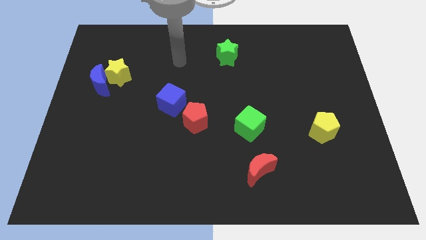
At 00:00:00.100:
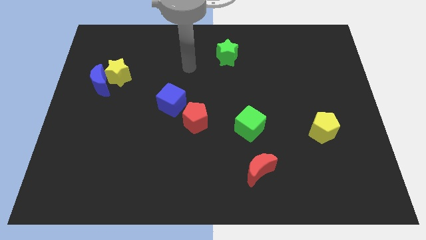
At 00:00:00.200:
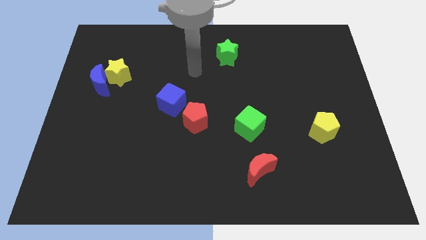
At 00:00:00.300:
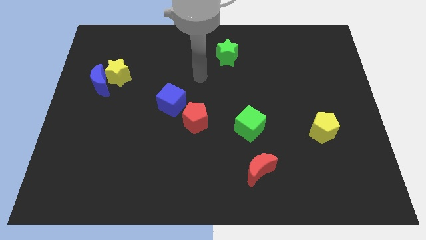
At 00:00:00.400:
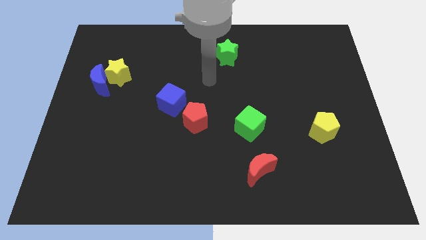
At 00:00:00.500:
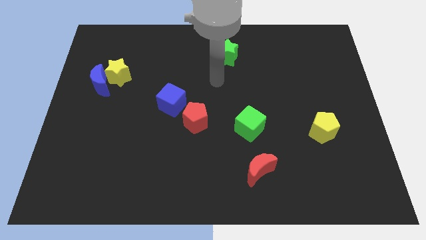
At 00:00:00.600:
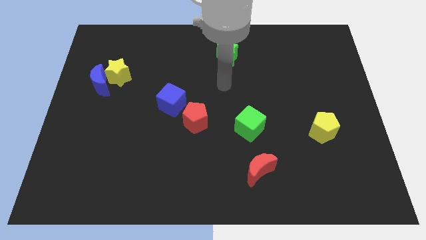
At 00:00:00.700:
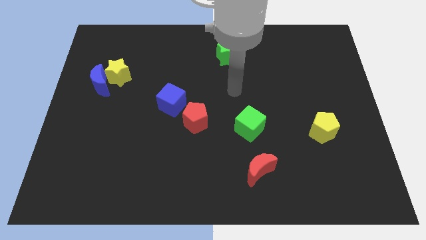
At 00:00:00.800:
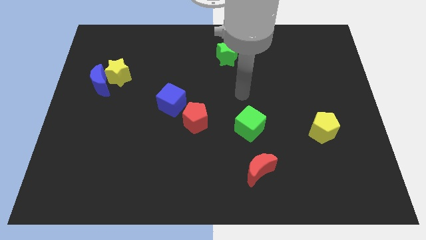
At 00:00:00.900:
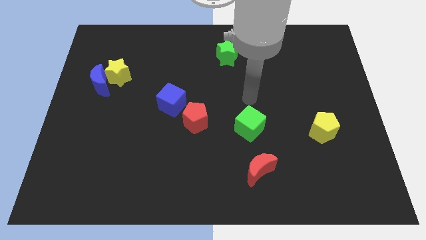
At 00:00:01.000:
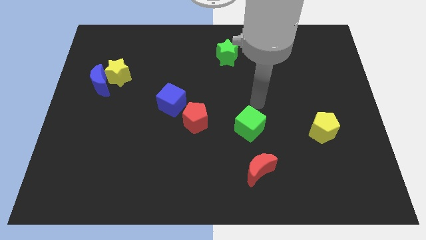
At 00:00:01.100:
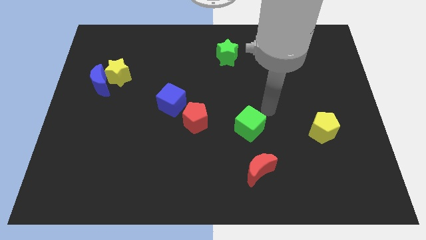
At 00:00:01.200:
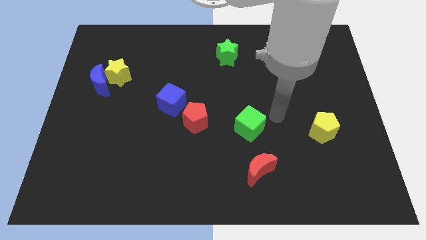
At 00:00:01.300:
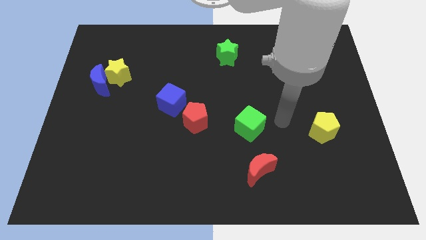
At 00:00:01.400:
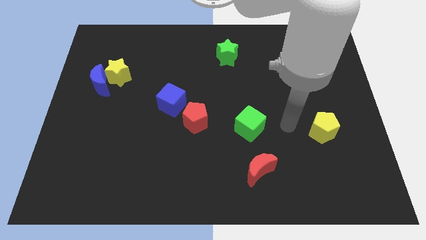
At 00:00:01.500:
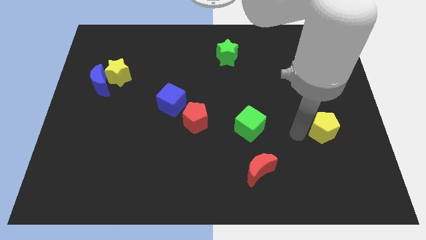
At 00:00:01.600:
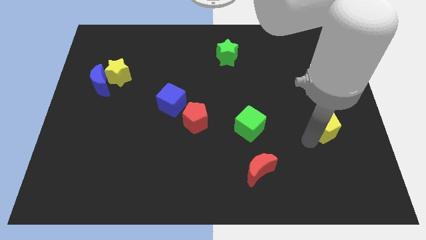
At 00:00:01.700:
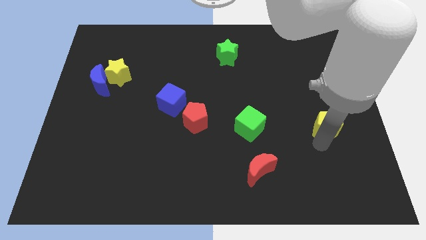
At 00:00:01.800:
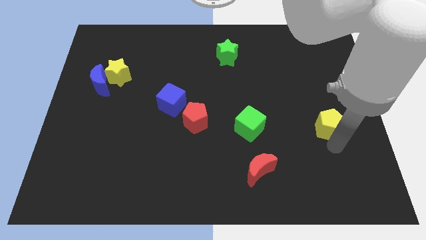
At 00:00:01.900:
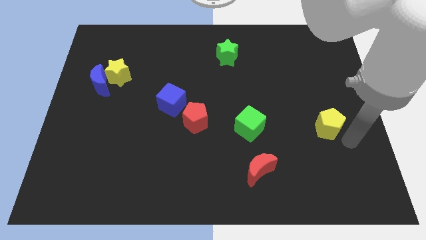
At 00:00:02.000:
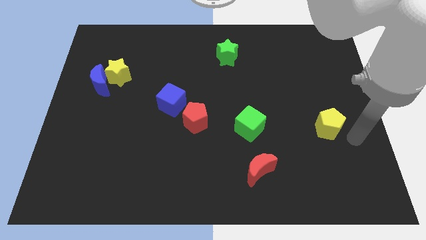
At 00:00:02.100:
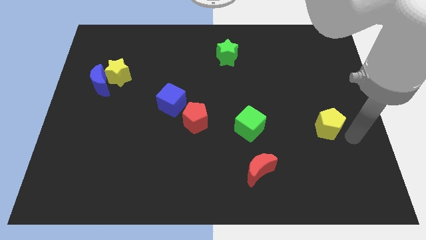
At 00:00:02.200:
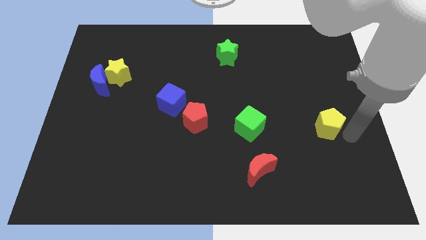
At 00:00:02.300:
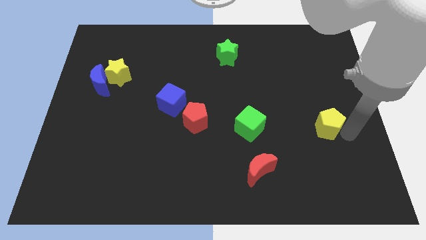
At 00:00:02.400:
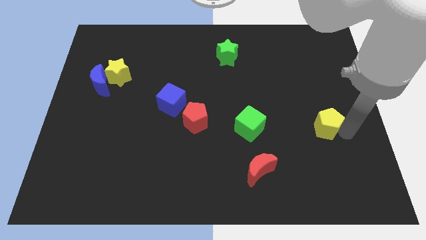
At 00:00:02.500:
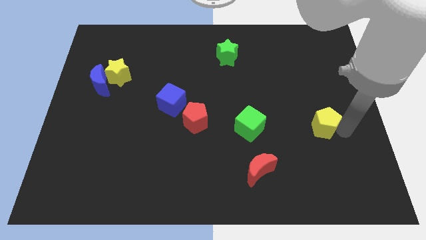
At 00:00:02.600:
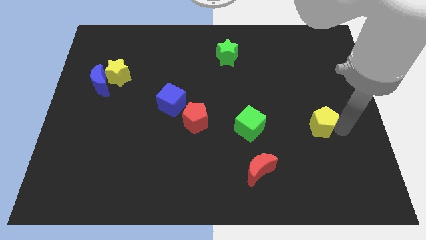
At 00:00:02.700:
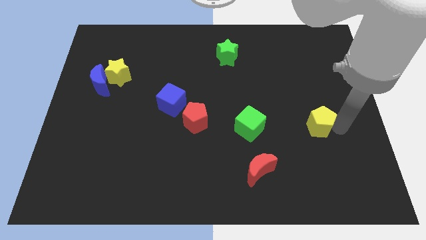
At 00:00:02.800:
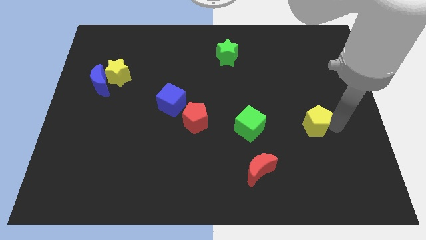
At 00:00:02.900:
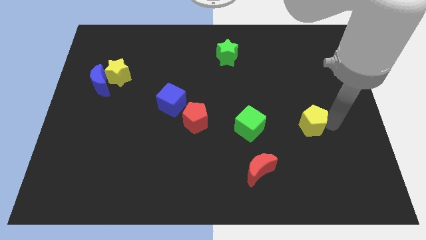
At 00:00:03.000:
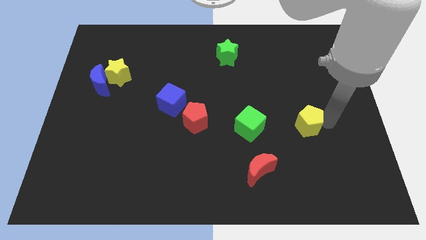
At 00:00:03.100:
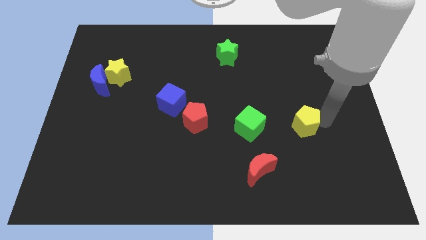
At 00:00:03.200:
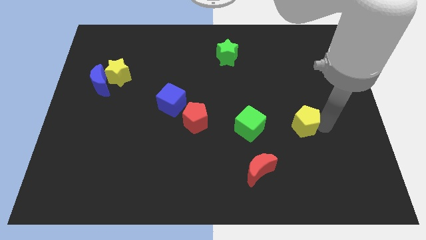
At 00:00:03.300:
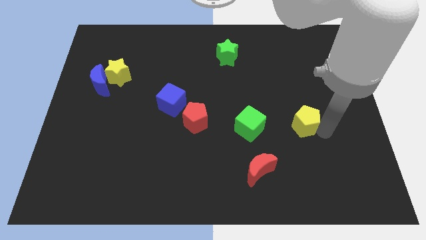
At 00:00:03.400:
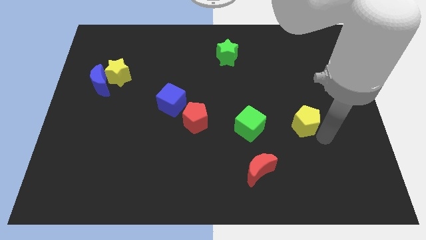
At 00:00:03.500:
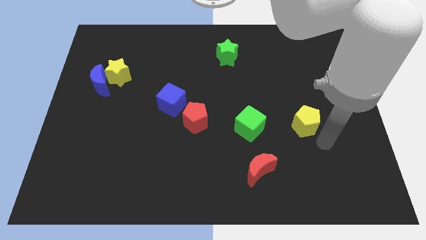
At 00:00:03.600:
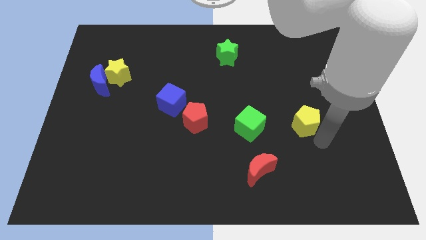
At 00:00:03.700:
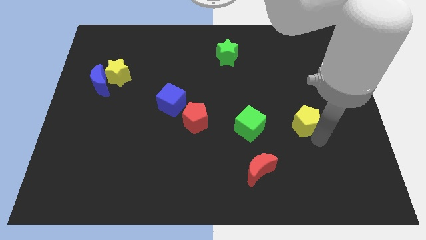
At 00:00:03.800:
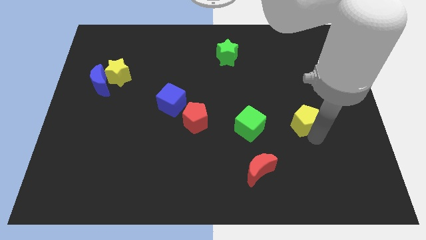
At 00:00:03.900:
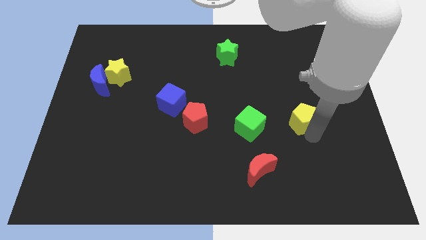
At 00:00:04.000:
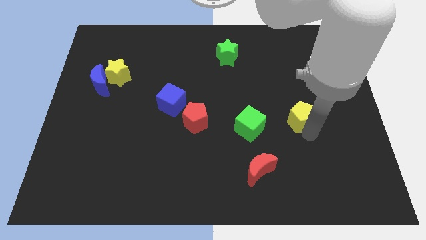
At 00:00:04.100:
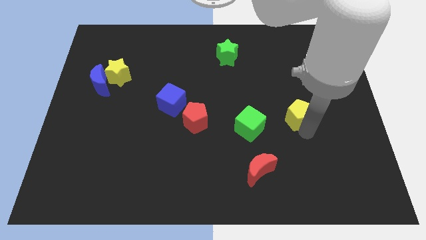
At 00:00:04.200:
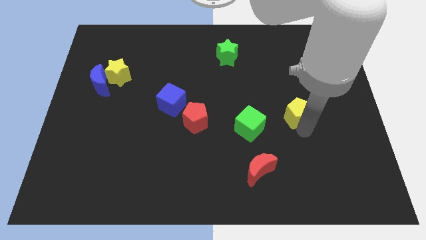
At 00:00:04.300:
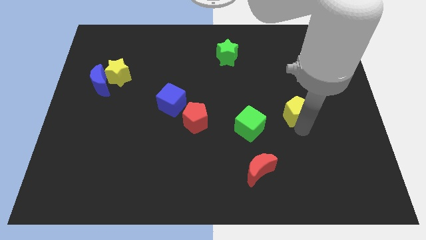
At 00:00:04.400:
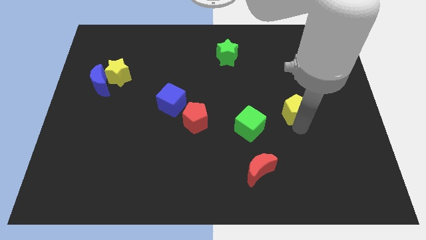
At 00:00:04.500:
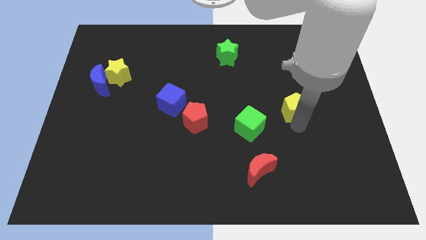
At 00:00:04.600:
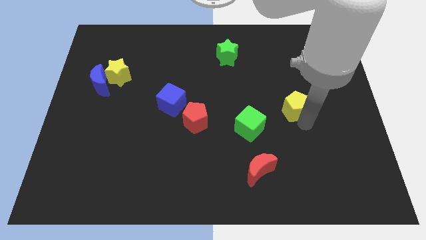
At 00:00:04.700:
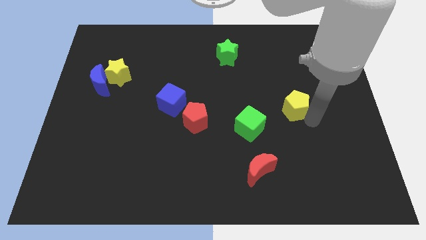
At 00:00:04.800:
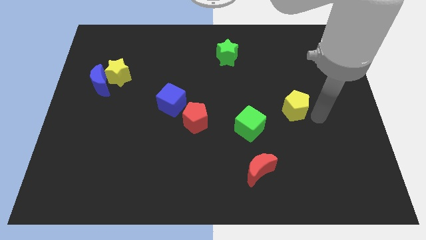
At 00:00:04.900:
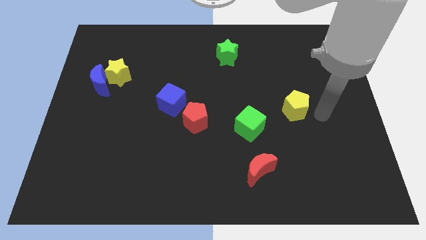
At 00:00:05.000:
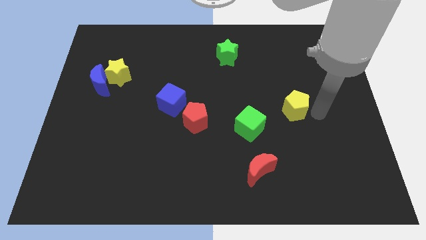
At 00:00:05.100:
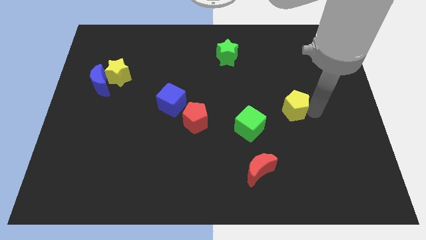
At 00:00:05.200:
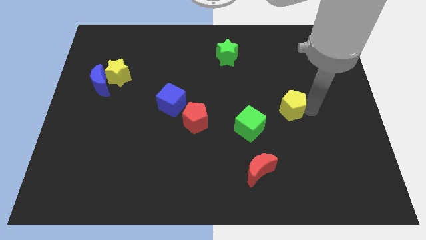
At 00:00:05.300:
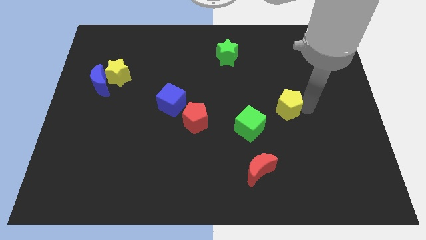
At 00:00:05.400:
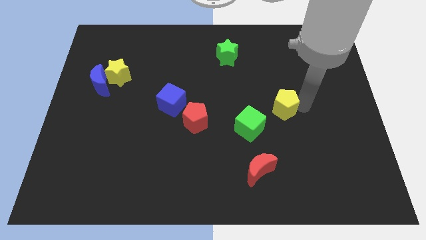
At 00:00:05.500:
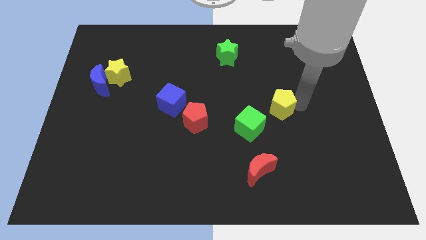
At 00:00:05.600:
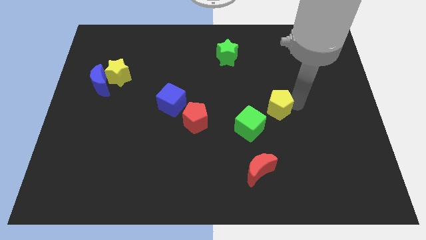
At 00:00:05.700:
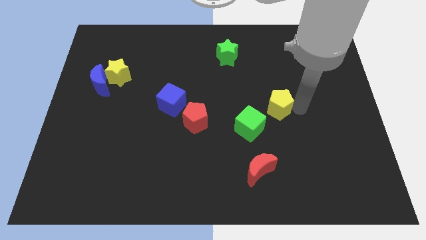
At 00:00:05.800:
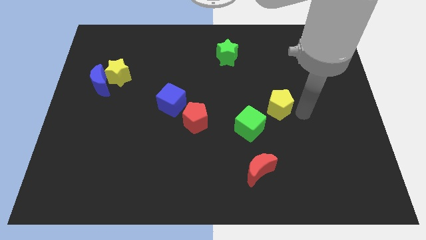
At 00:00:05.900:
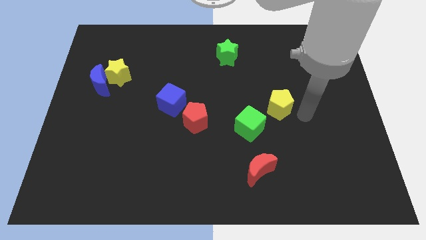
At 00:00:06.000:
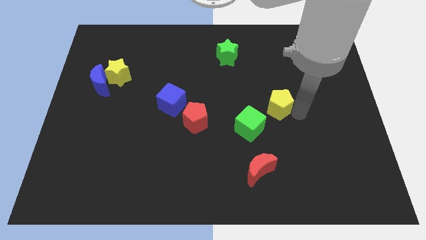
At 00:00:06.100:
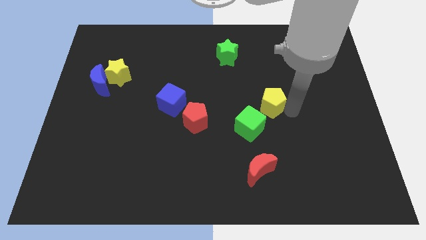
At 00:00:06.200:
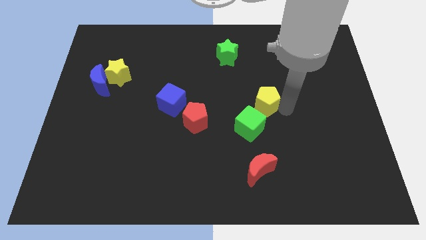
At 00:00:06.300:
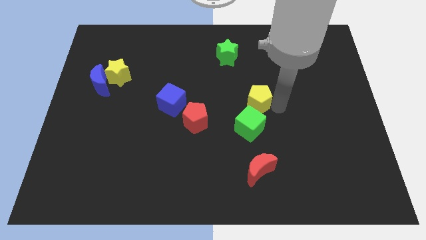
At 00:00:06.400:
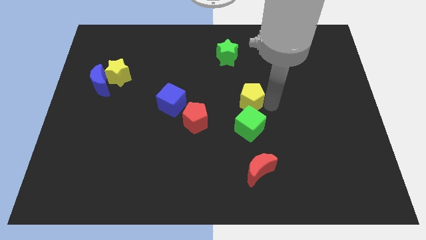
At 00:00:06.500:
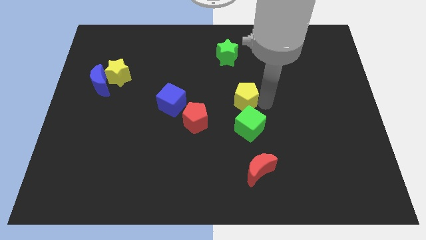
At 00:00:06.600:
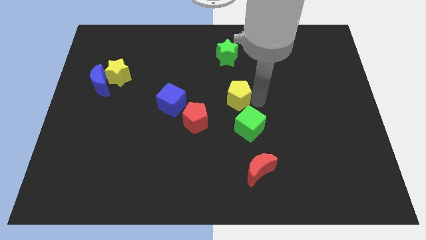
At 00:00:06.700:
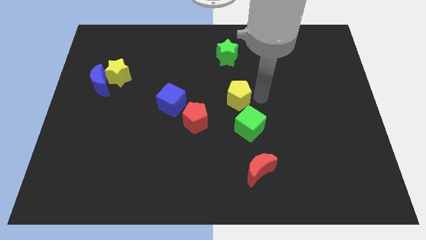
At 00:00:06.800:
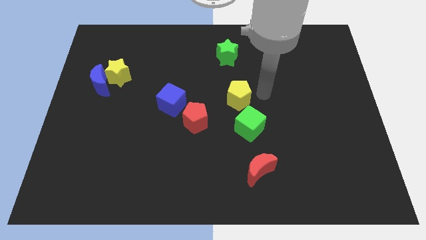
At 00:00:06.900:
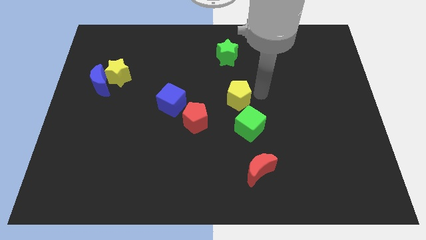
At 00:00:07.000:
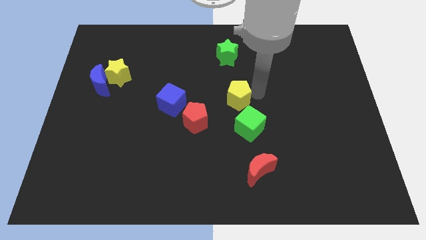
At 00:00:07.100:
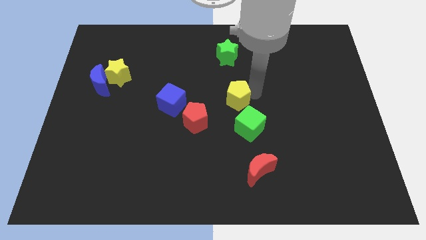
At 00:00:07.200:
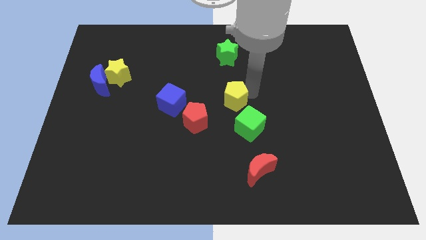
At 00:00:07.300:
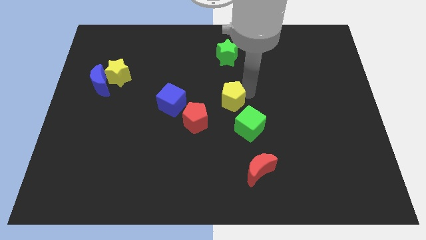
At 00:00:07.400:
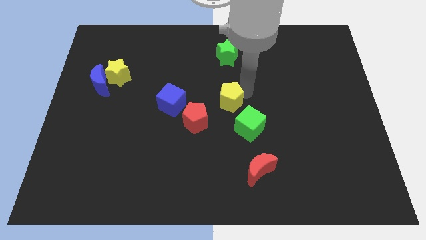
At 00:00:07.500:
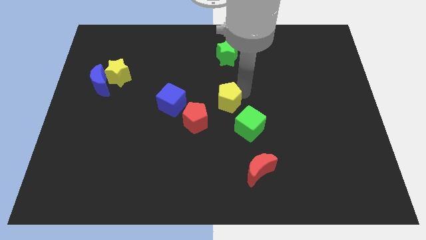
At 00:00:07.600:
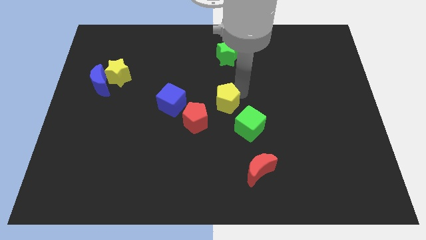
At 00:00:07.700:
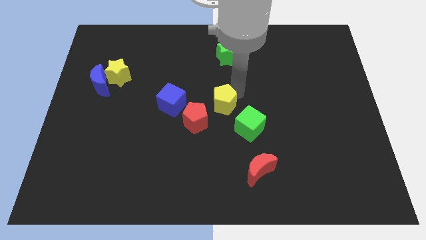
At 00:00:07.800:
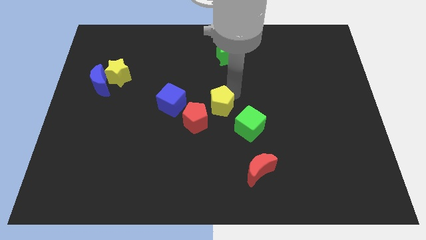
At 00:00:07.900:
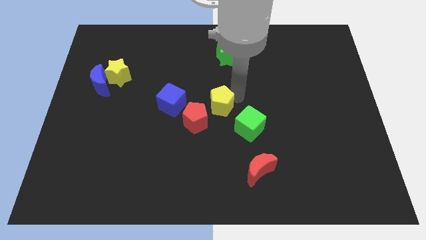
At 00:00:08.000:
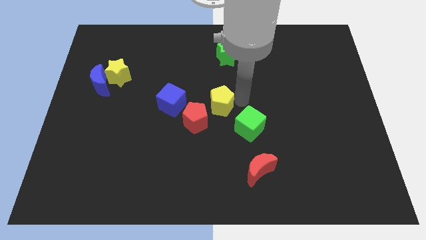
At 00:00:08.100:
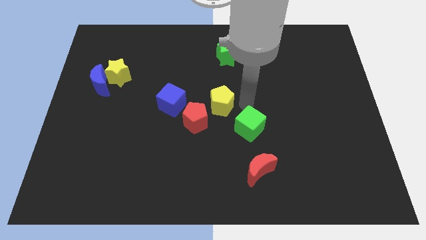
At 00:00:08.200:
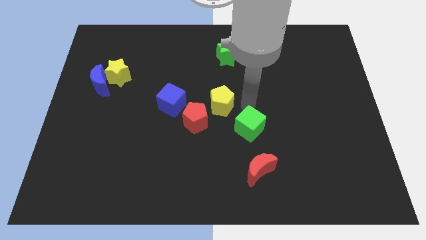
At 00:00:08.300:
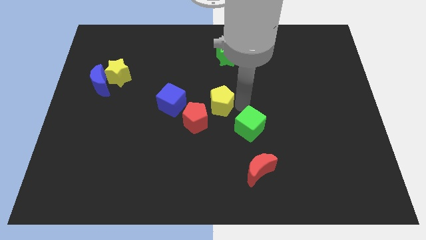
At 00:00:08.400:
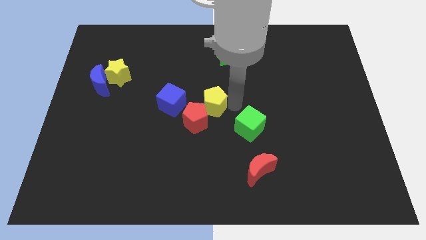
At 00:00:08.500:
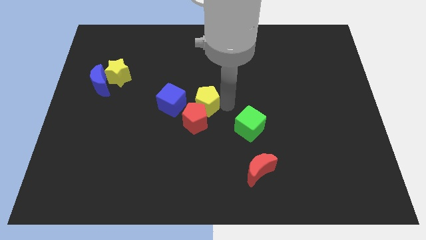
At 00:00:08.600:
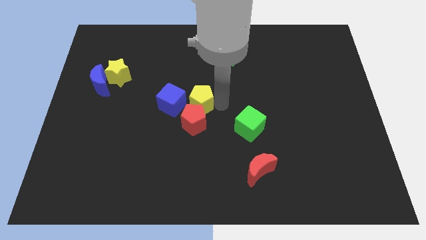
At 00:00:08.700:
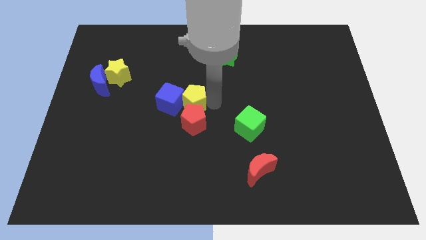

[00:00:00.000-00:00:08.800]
push the yellow pentagon close to the blue cube
